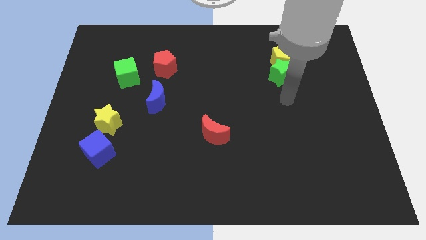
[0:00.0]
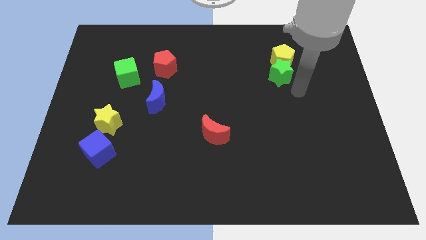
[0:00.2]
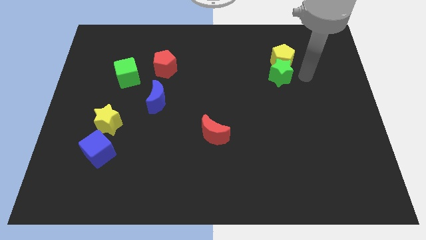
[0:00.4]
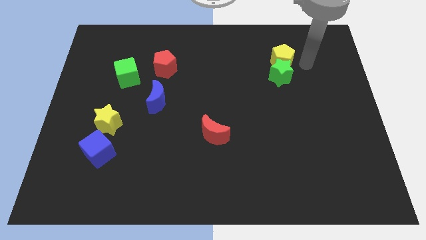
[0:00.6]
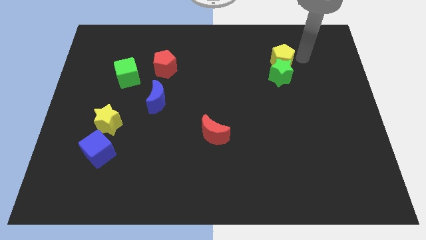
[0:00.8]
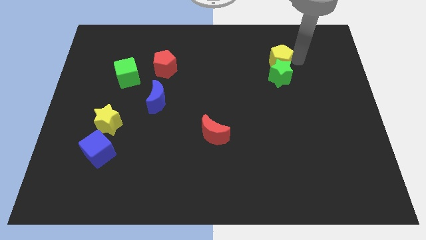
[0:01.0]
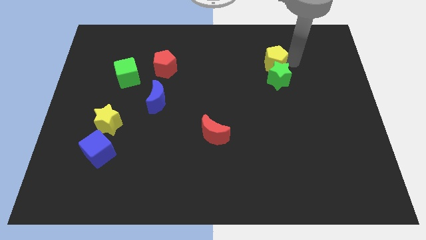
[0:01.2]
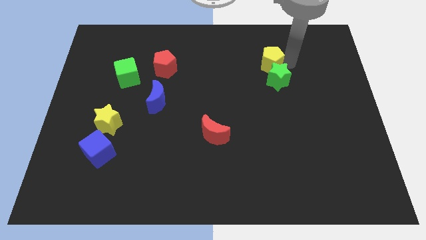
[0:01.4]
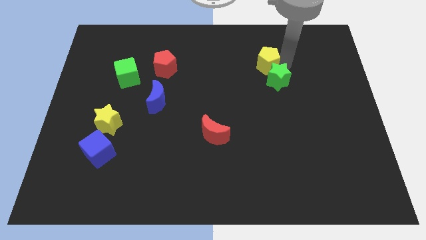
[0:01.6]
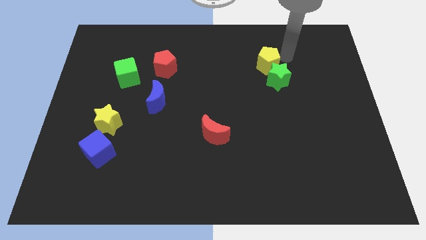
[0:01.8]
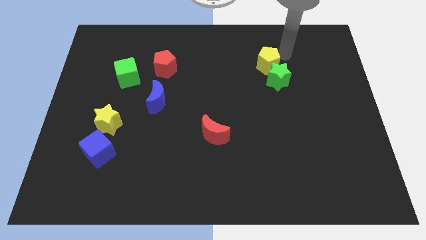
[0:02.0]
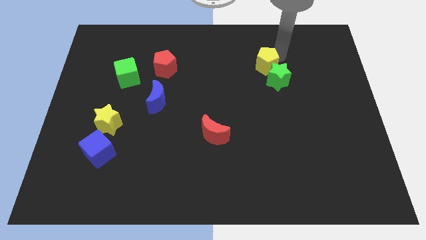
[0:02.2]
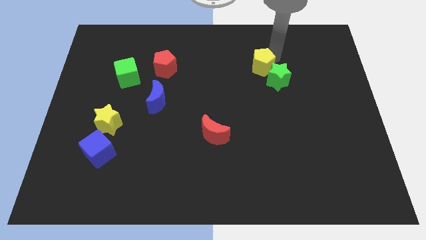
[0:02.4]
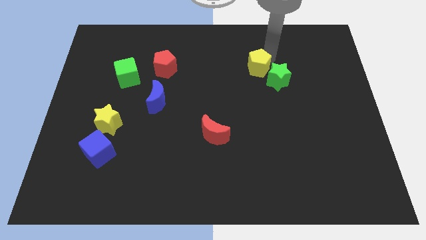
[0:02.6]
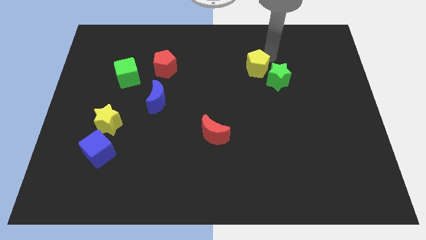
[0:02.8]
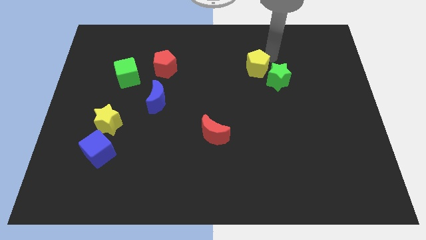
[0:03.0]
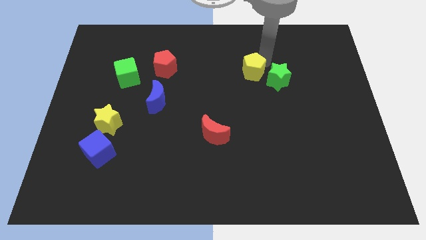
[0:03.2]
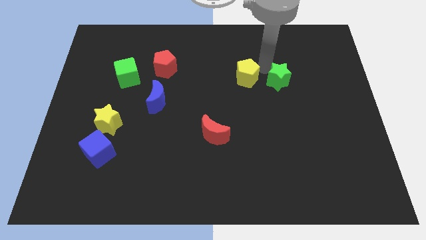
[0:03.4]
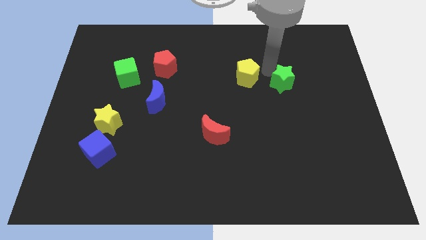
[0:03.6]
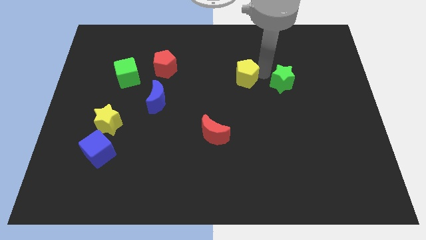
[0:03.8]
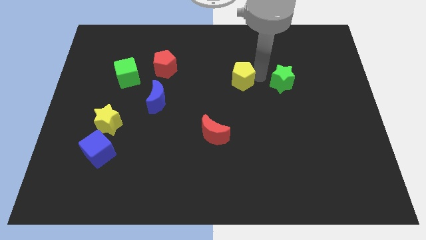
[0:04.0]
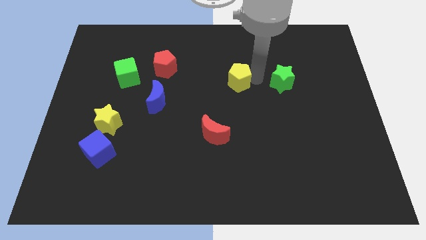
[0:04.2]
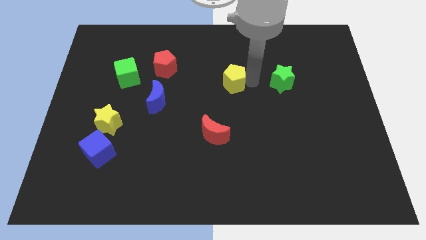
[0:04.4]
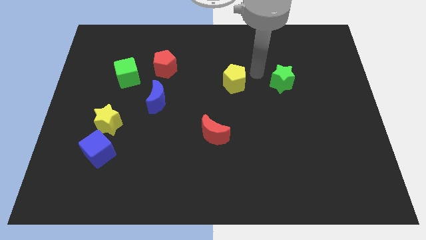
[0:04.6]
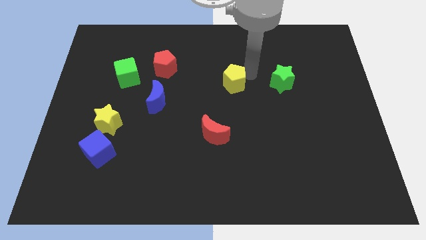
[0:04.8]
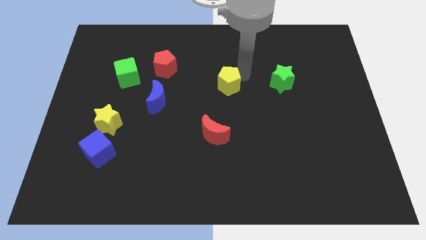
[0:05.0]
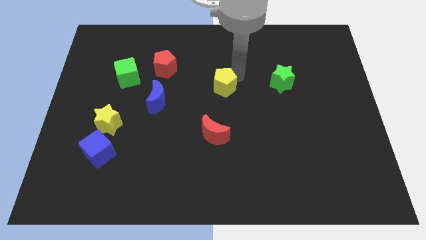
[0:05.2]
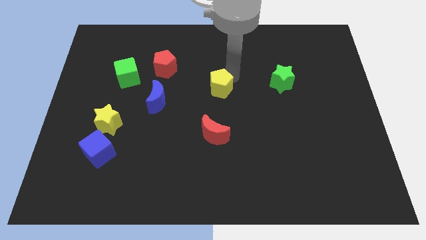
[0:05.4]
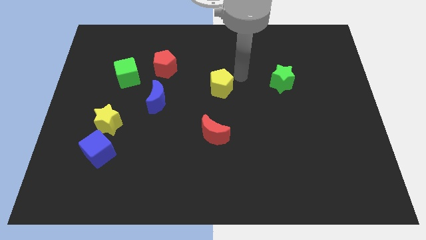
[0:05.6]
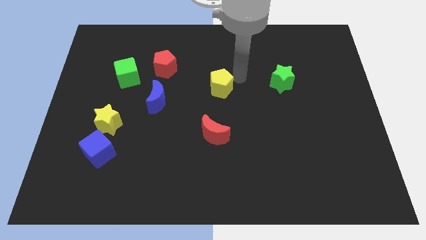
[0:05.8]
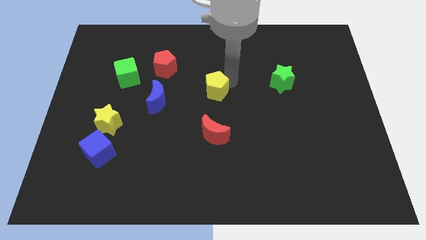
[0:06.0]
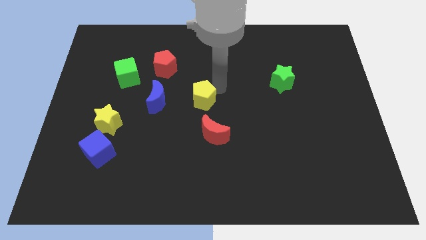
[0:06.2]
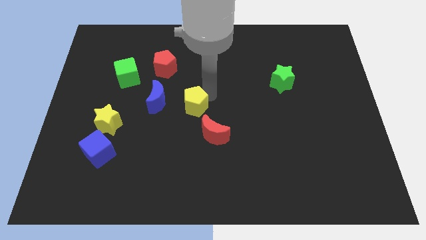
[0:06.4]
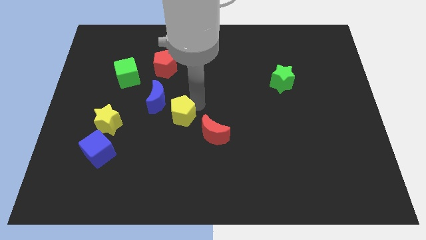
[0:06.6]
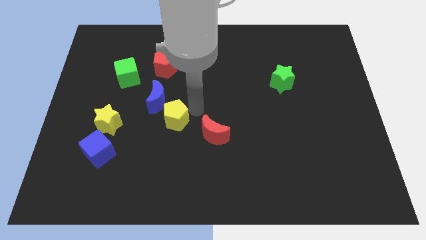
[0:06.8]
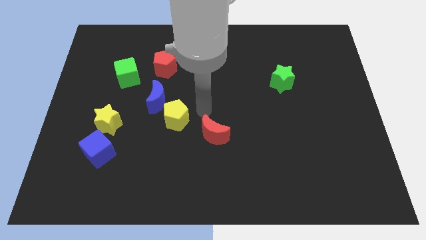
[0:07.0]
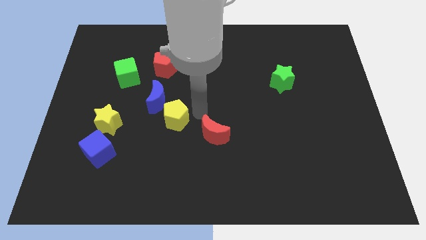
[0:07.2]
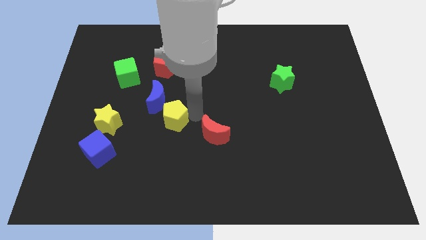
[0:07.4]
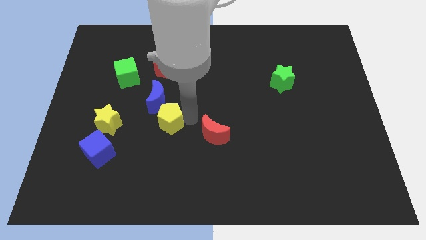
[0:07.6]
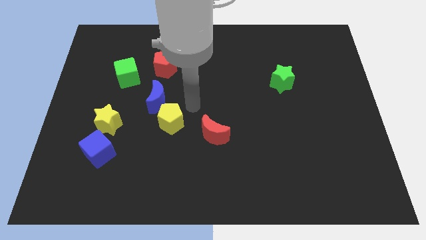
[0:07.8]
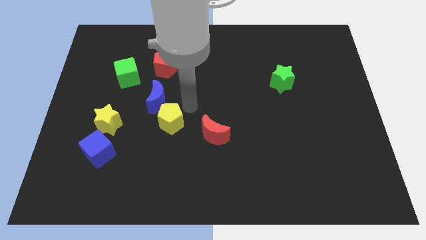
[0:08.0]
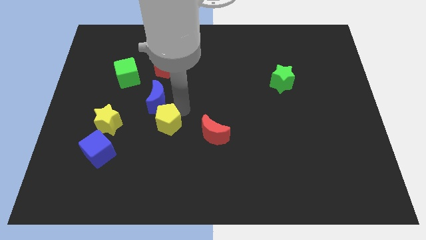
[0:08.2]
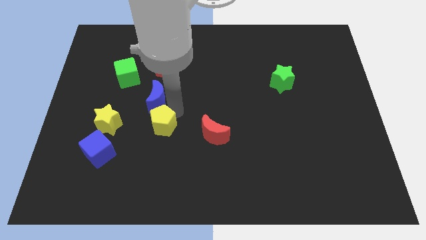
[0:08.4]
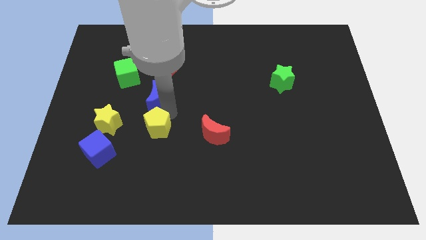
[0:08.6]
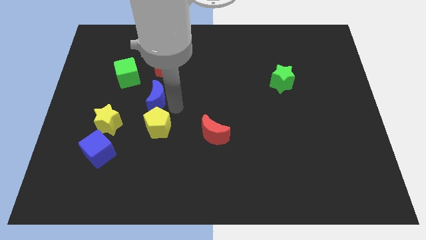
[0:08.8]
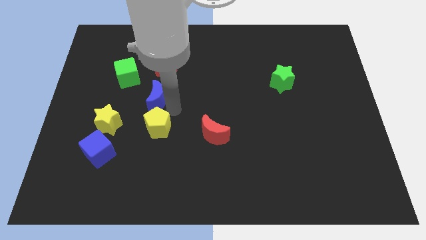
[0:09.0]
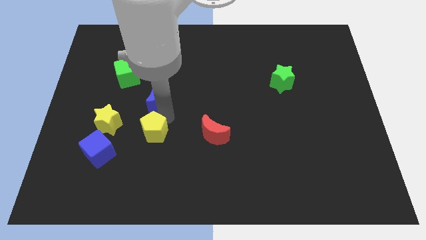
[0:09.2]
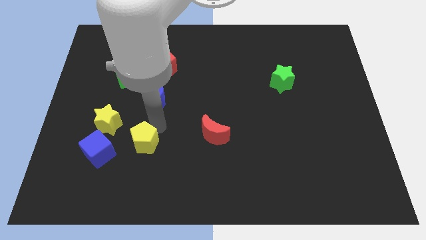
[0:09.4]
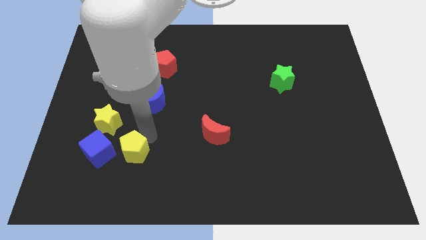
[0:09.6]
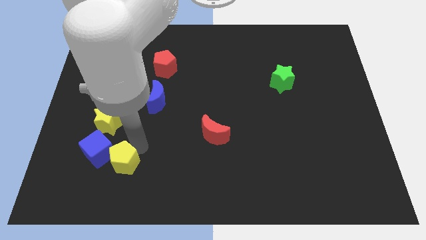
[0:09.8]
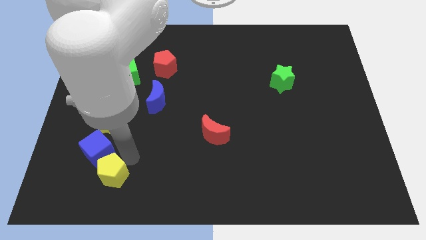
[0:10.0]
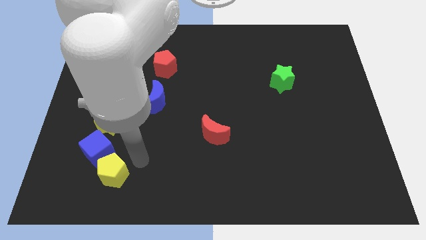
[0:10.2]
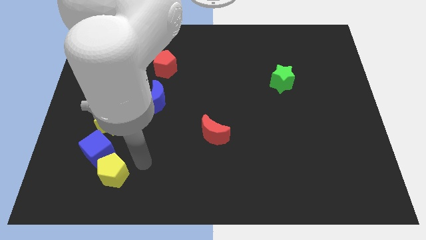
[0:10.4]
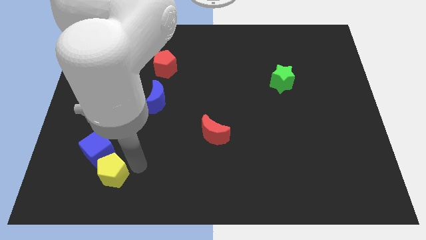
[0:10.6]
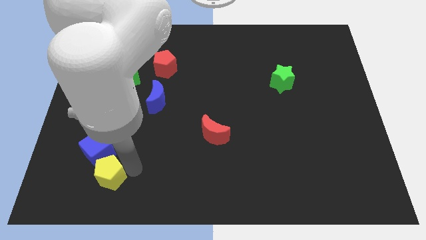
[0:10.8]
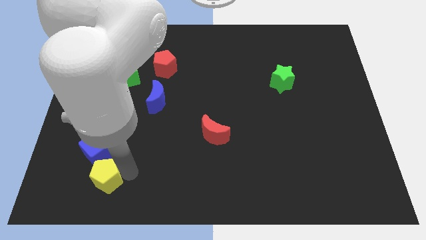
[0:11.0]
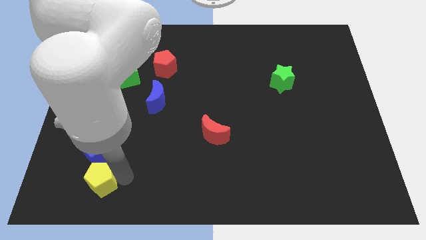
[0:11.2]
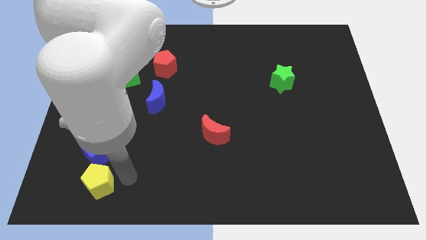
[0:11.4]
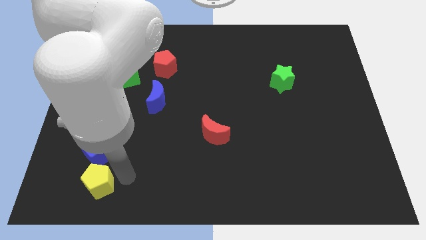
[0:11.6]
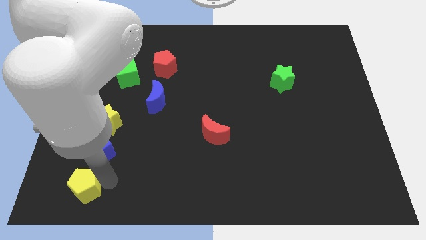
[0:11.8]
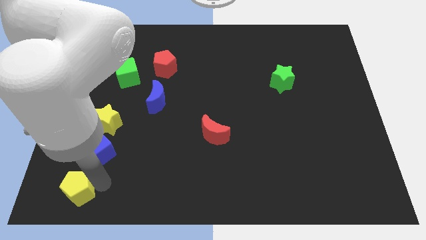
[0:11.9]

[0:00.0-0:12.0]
move the yellow pentagon to the lower left corner

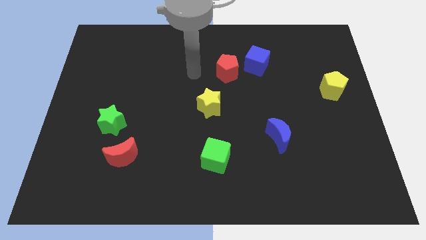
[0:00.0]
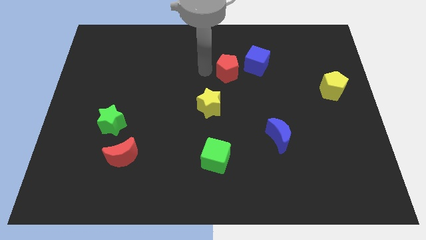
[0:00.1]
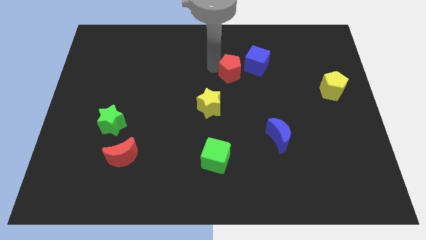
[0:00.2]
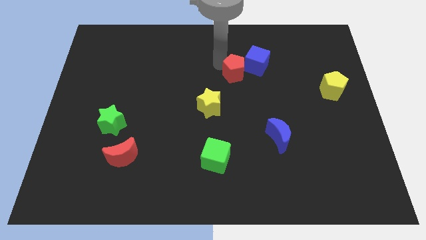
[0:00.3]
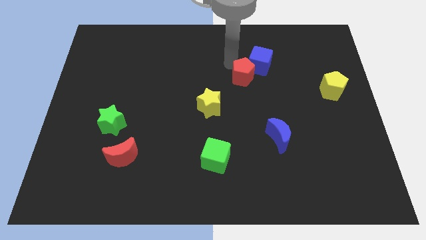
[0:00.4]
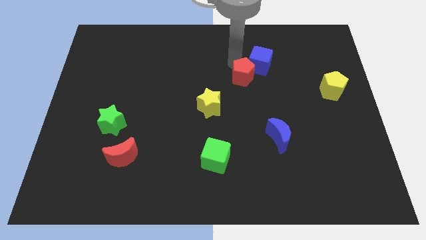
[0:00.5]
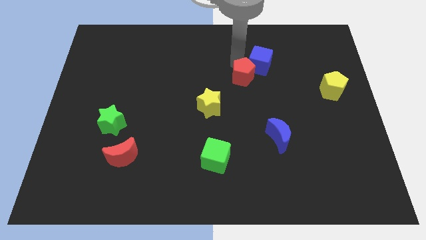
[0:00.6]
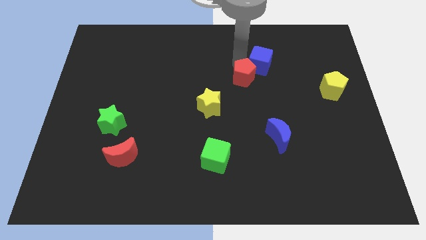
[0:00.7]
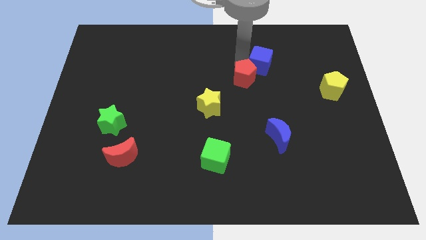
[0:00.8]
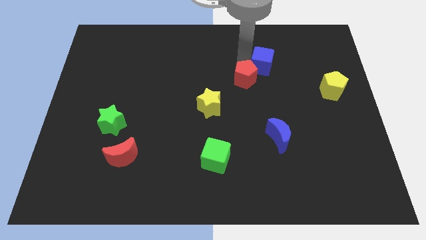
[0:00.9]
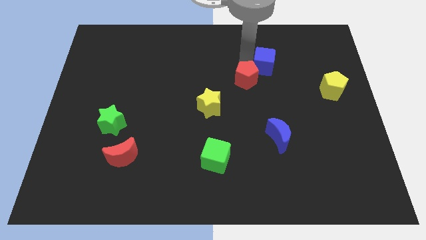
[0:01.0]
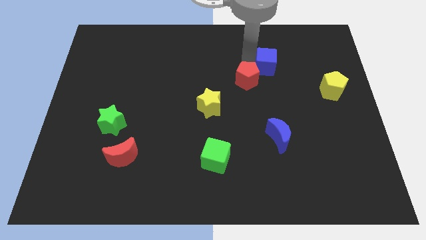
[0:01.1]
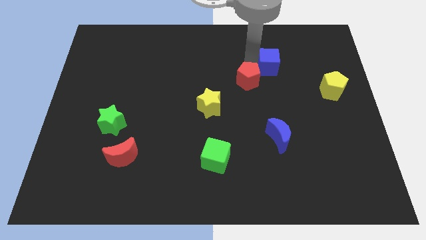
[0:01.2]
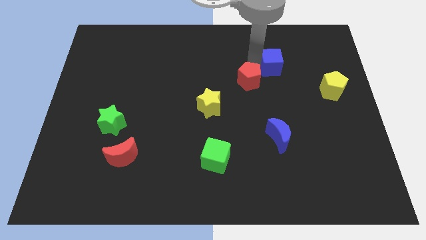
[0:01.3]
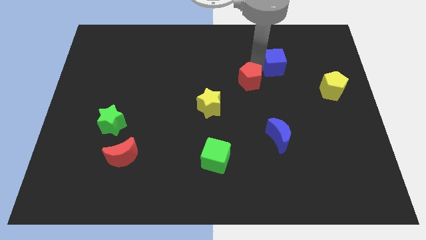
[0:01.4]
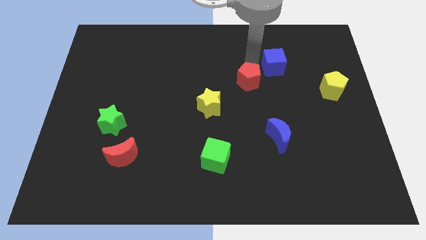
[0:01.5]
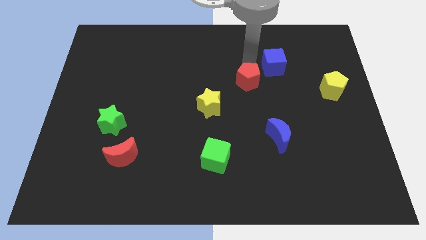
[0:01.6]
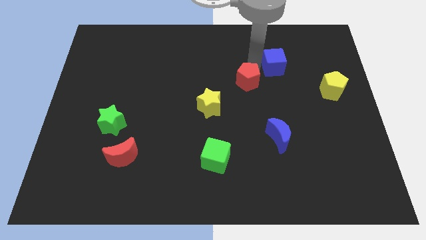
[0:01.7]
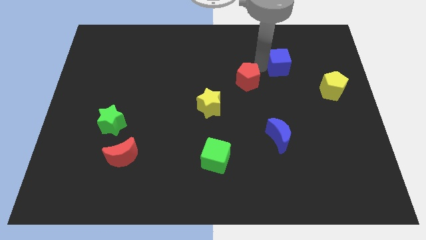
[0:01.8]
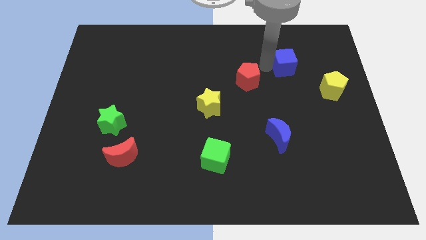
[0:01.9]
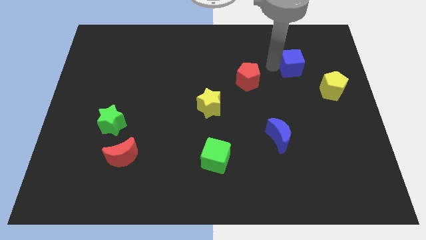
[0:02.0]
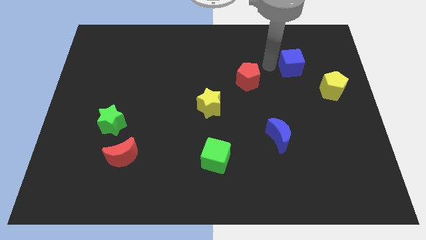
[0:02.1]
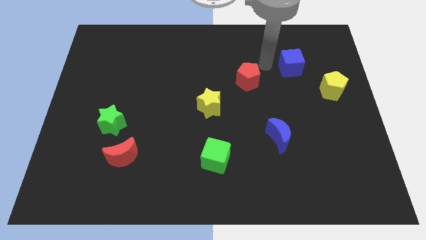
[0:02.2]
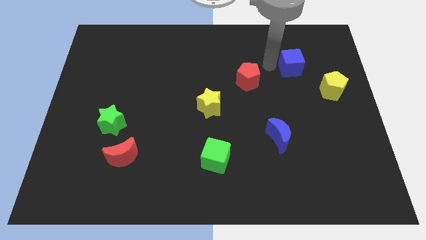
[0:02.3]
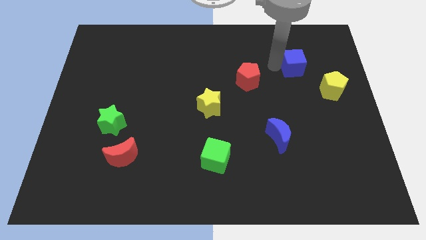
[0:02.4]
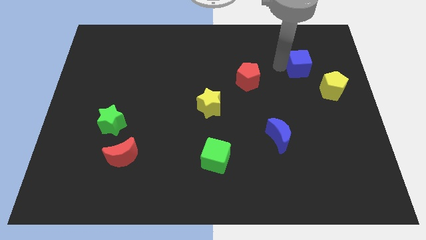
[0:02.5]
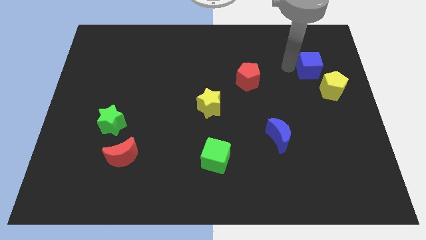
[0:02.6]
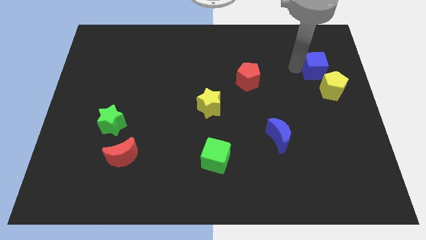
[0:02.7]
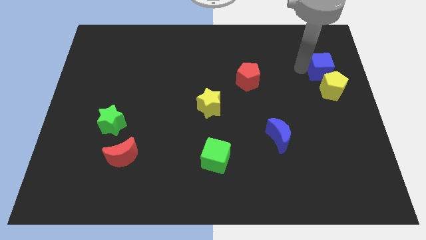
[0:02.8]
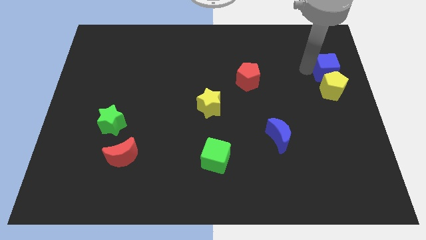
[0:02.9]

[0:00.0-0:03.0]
slide the blue cube to the right side of the board
